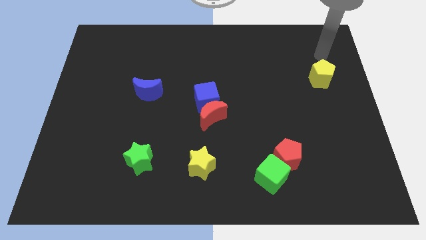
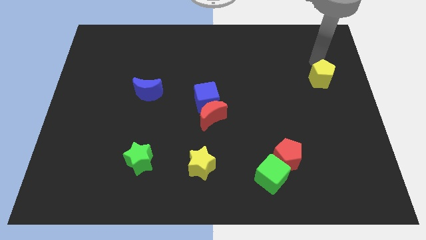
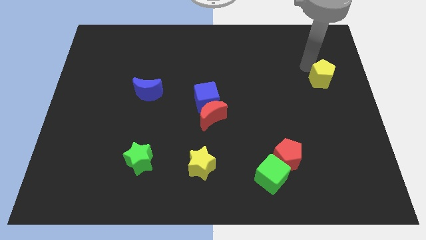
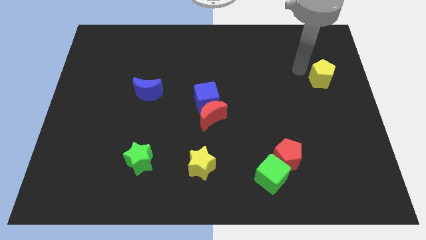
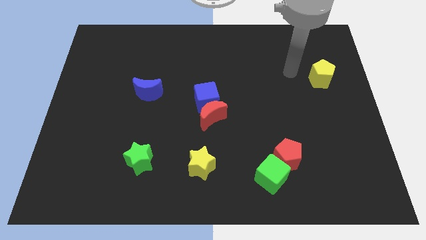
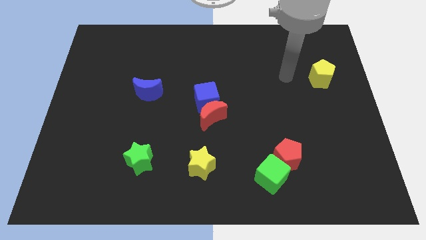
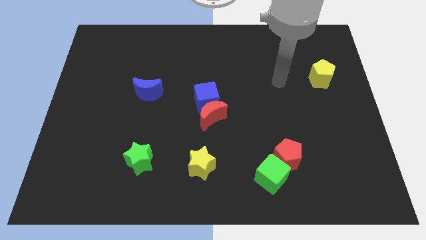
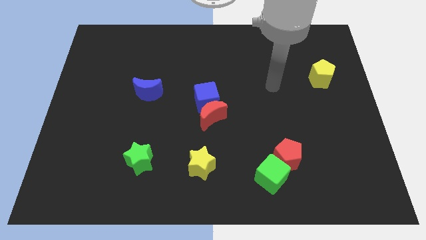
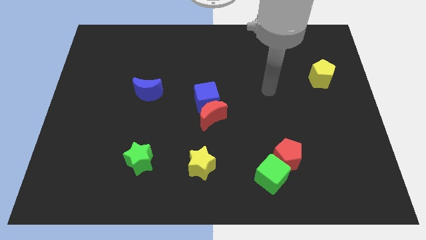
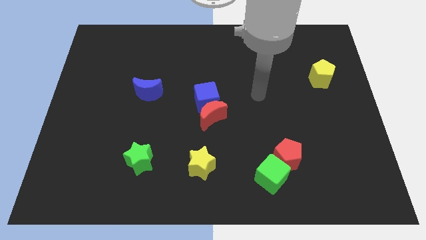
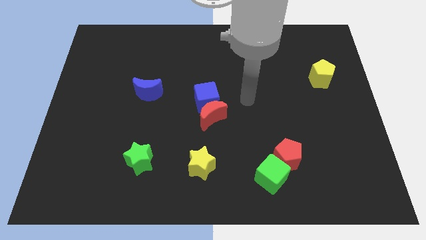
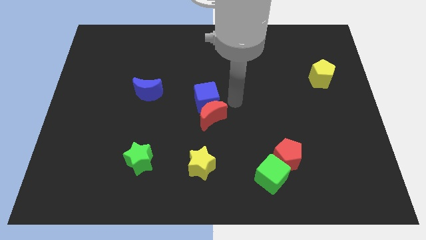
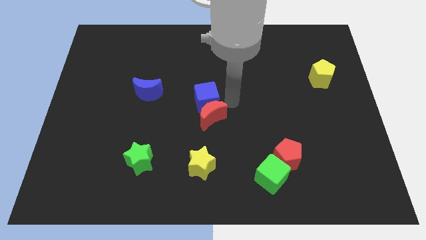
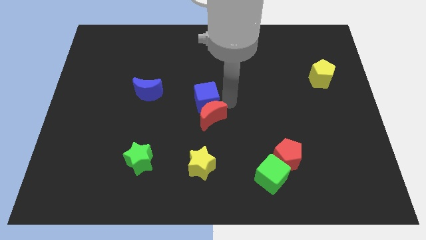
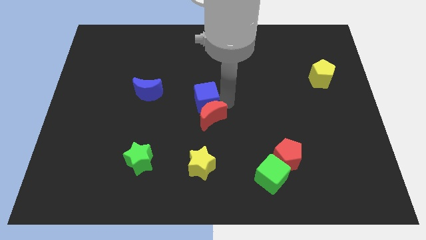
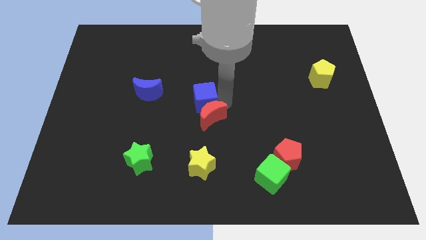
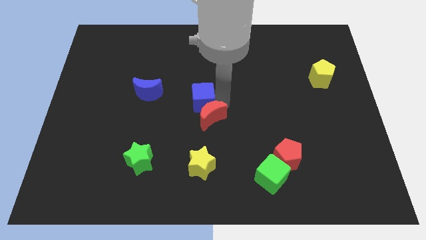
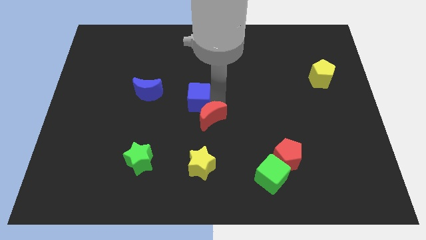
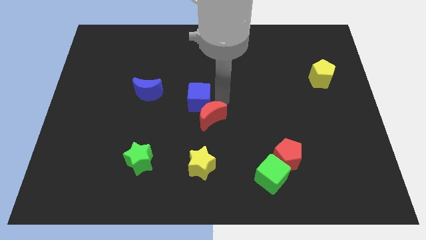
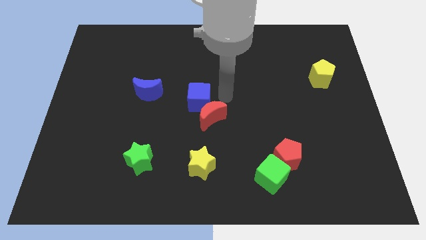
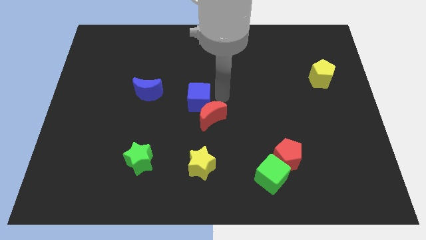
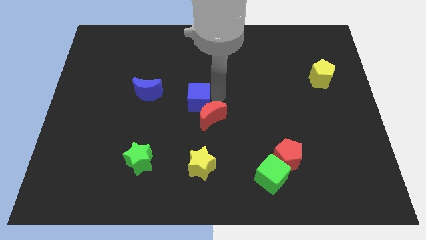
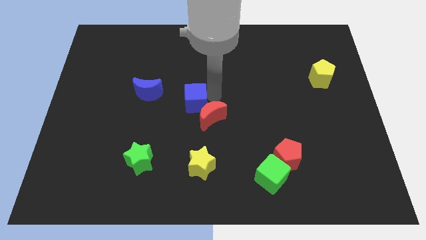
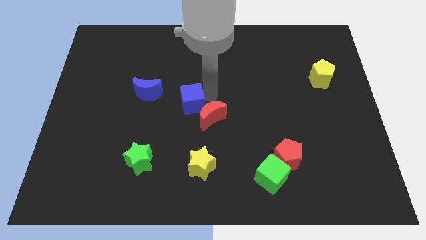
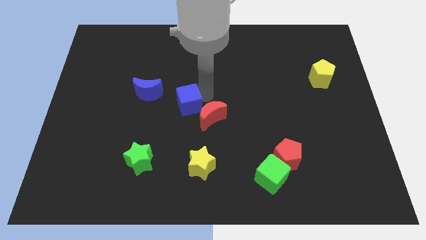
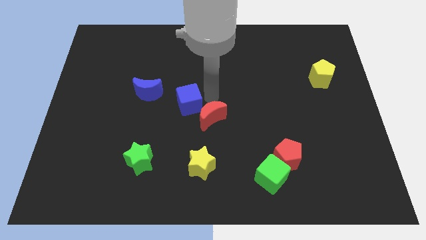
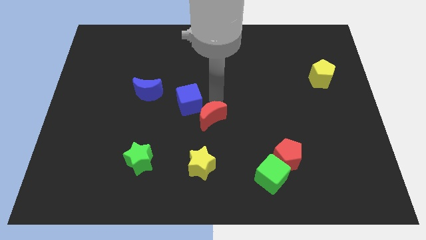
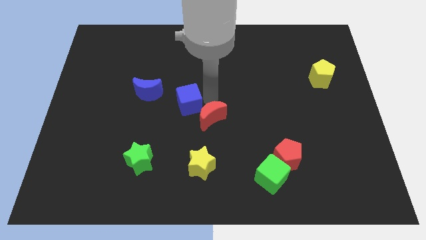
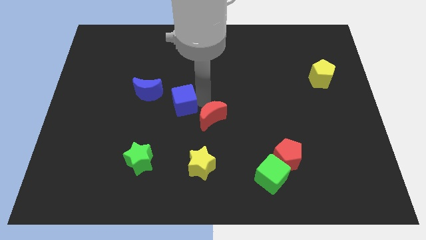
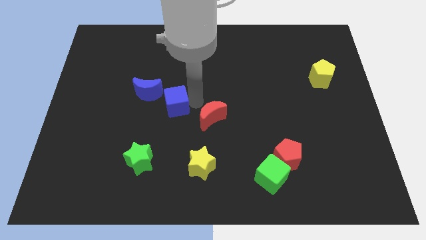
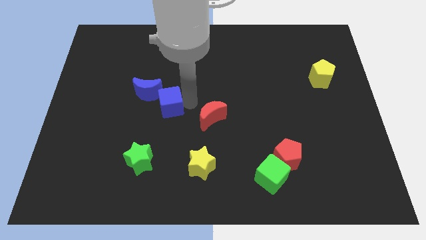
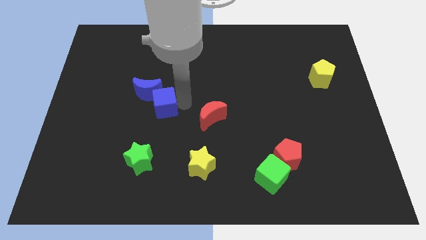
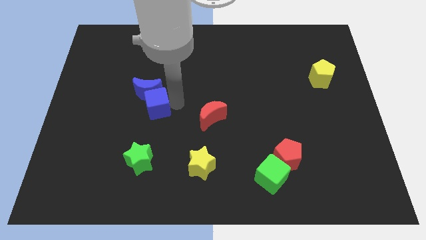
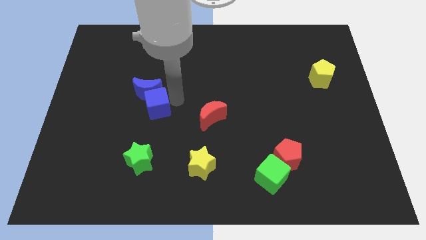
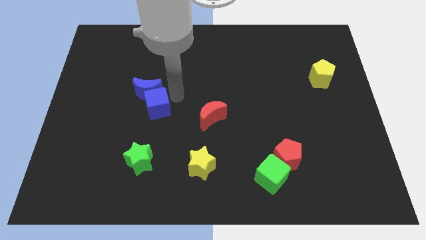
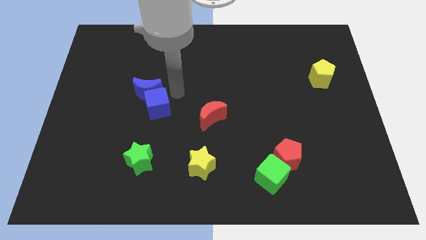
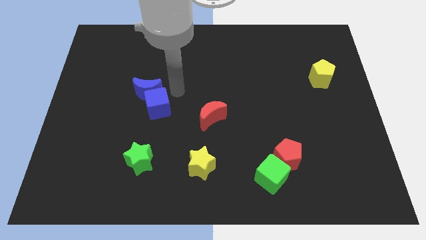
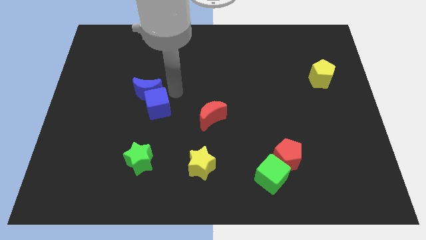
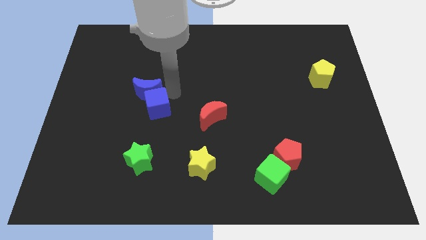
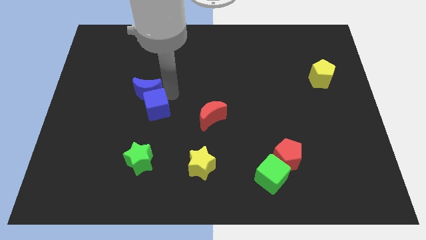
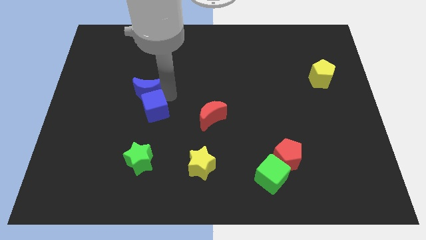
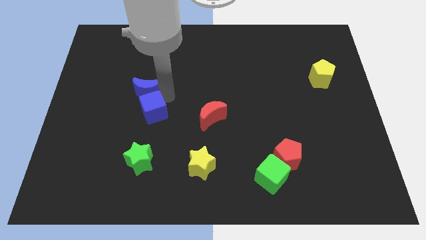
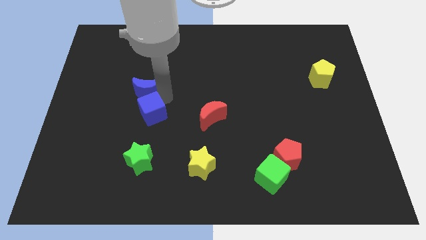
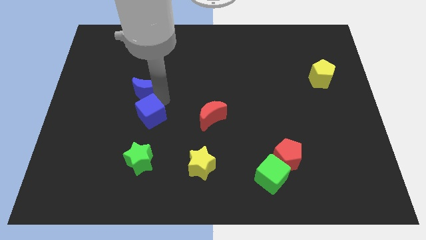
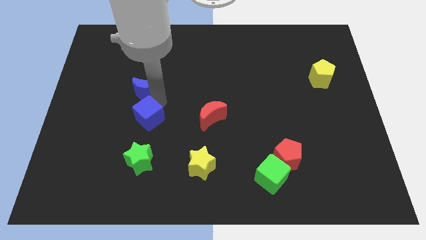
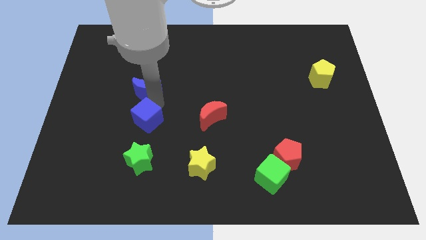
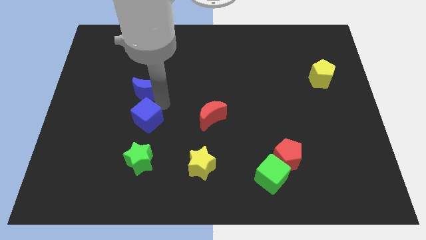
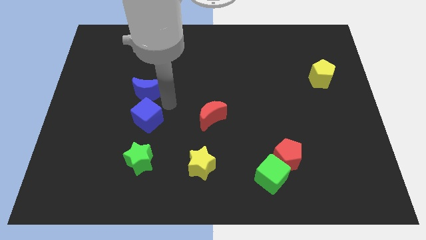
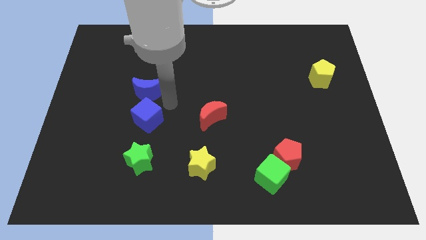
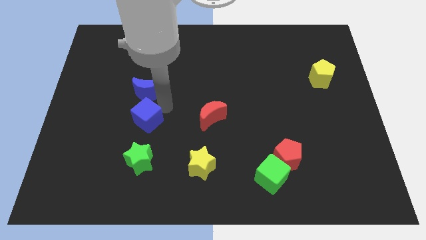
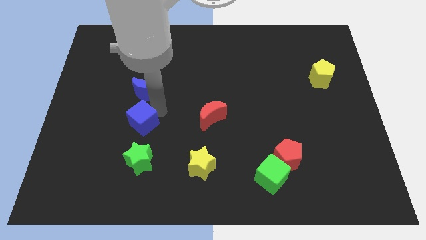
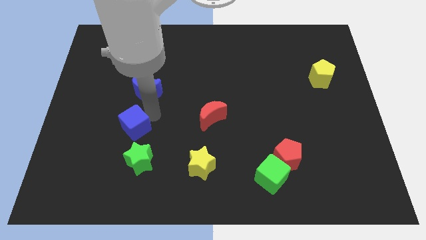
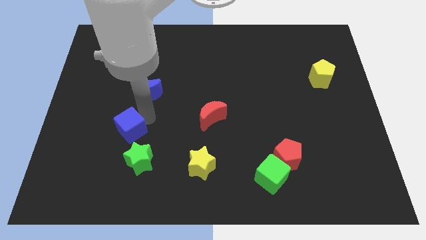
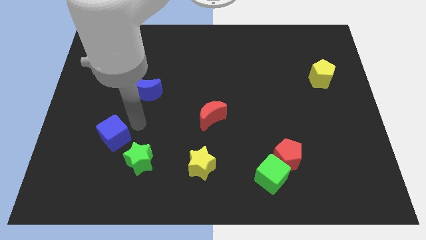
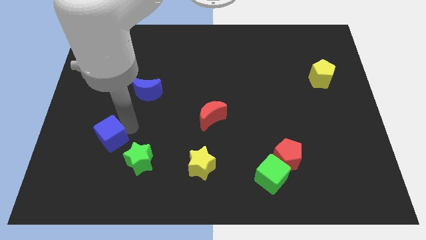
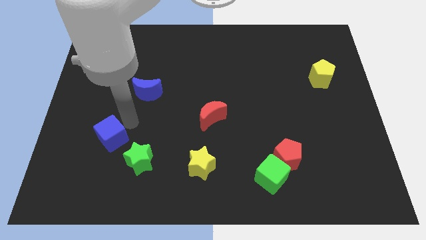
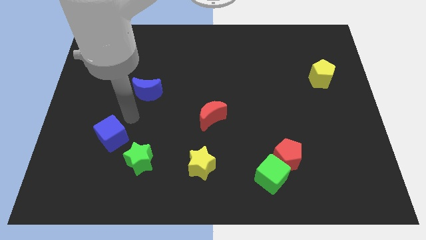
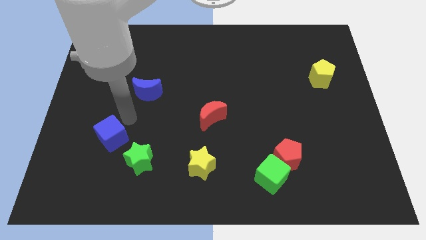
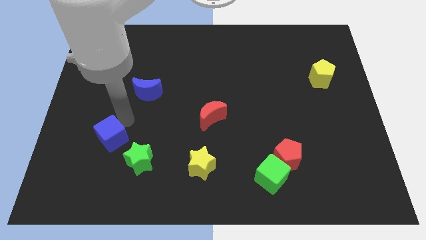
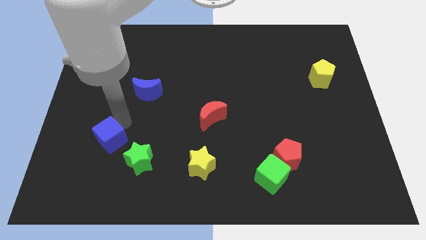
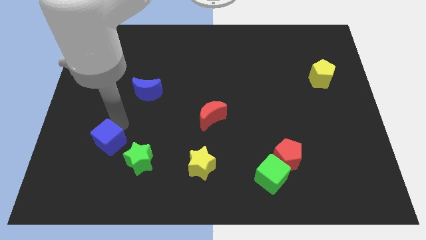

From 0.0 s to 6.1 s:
put the blue cube left of the green star

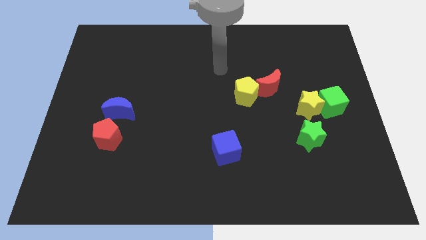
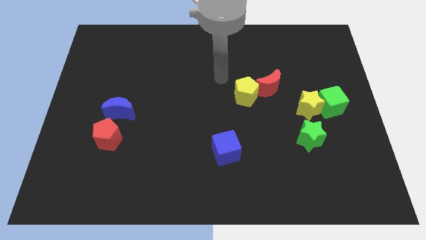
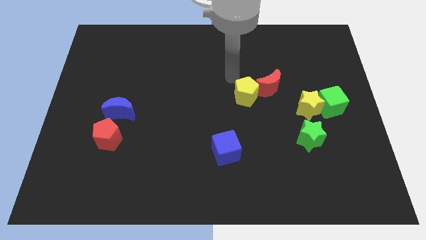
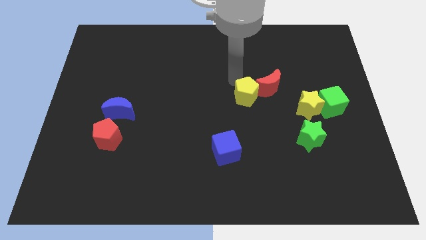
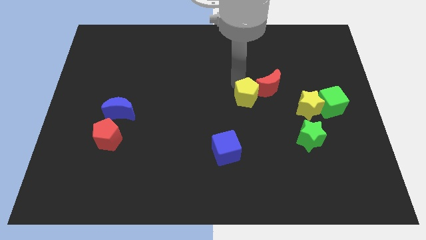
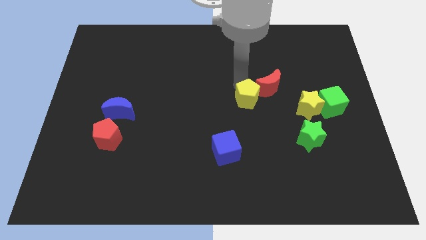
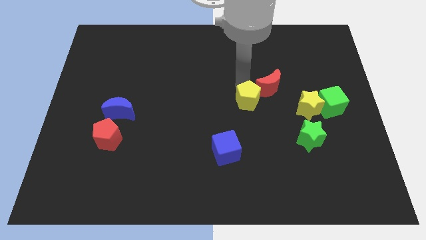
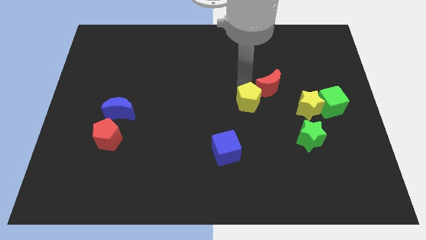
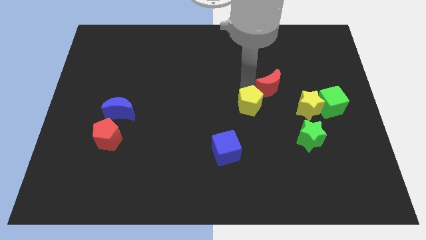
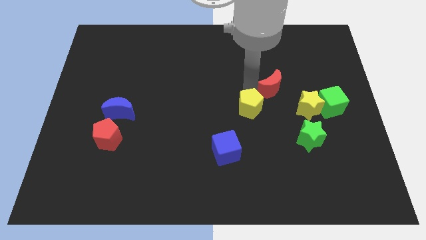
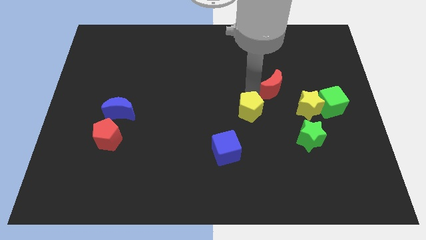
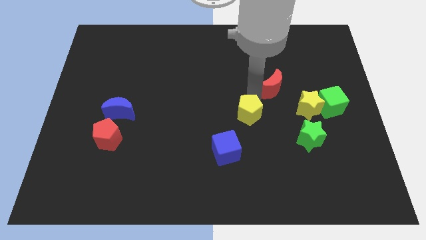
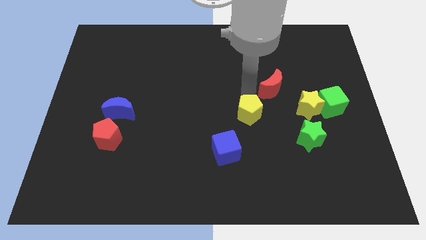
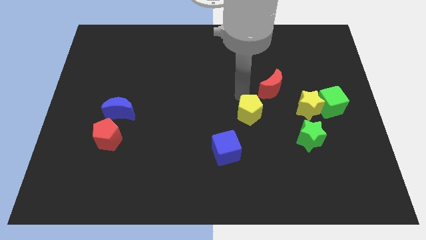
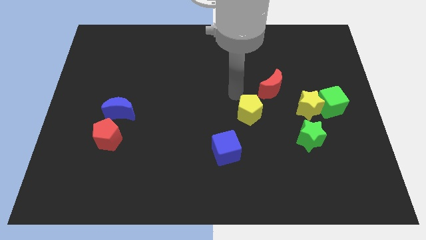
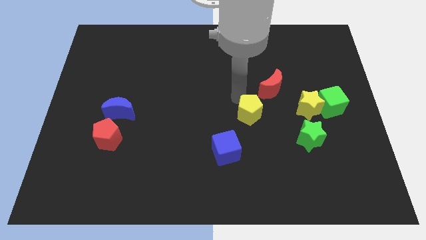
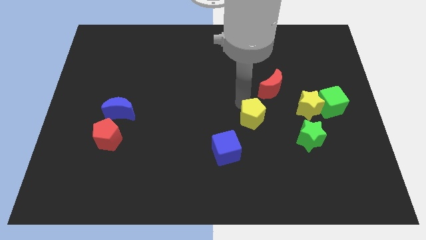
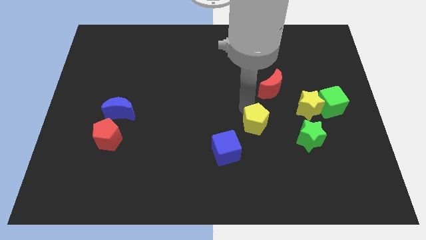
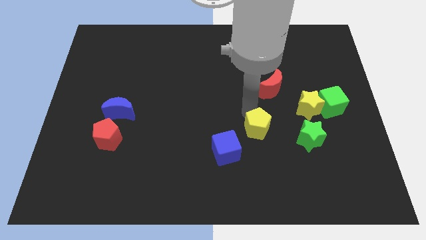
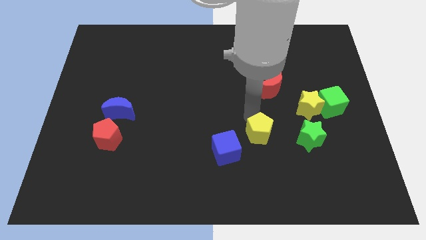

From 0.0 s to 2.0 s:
put the yellow pentagon just right of the blue cube
